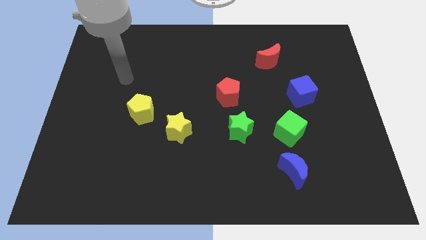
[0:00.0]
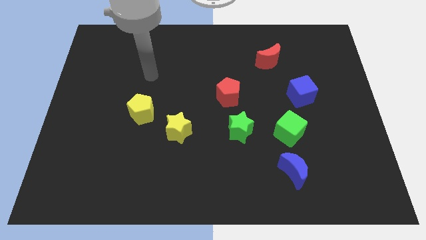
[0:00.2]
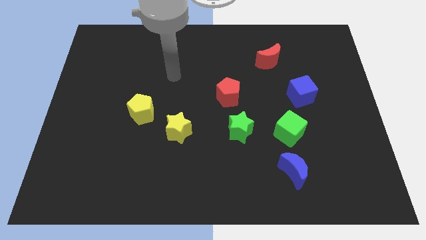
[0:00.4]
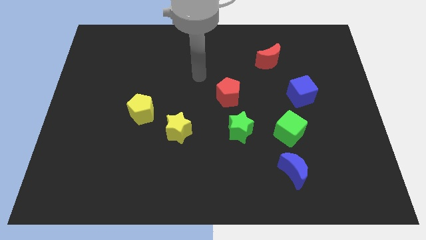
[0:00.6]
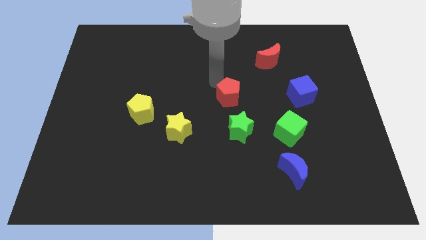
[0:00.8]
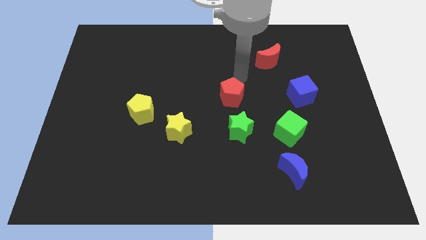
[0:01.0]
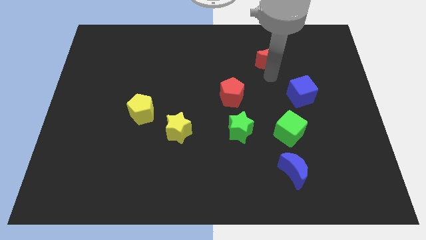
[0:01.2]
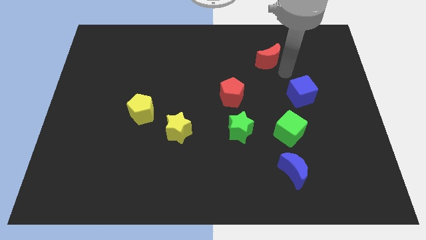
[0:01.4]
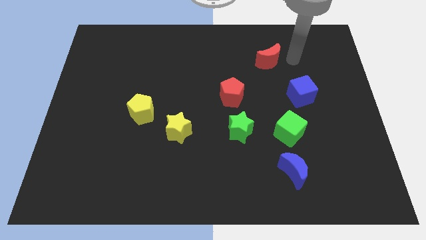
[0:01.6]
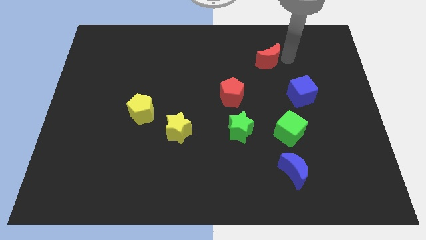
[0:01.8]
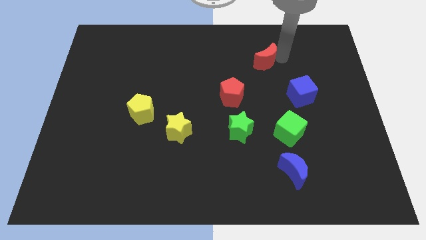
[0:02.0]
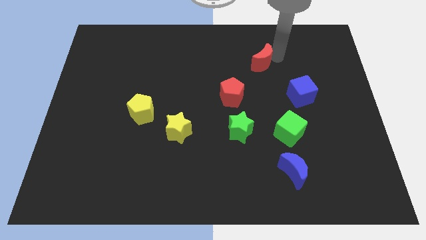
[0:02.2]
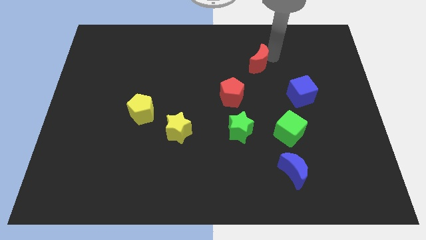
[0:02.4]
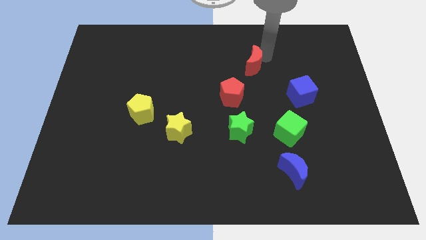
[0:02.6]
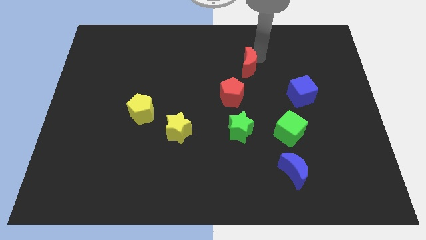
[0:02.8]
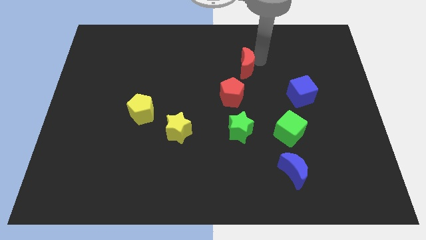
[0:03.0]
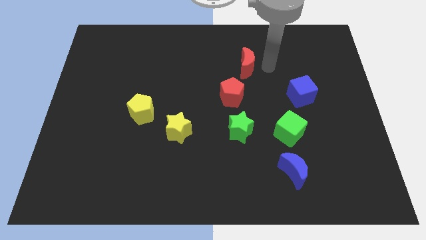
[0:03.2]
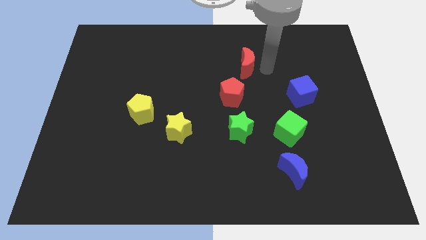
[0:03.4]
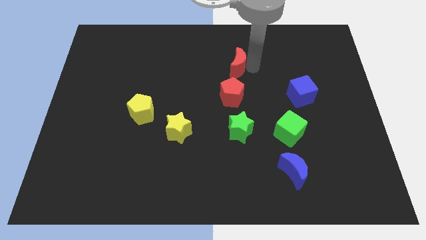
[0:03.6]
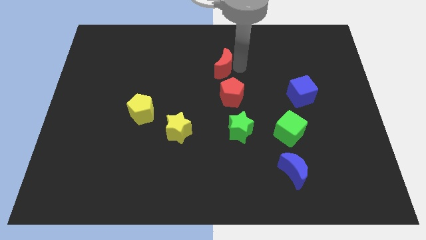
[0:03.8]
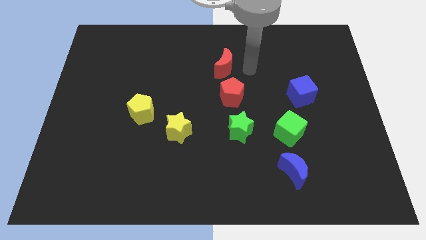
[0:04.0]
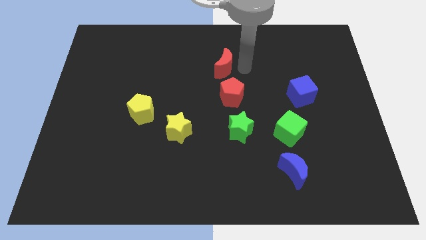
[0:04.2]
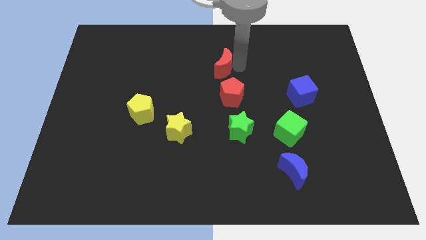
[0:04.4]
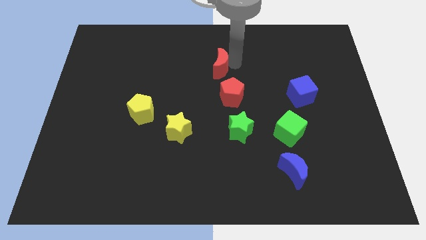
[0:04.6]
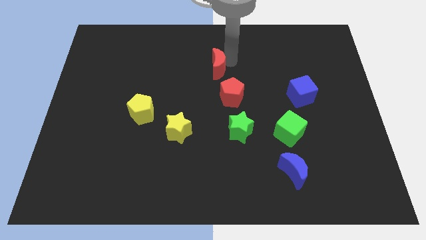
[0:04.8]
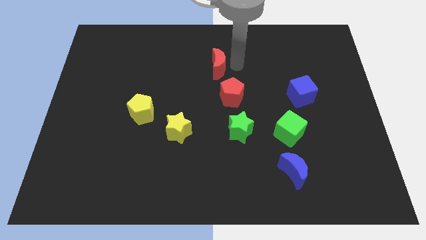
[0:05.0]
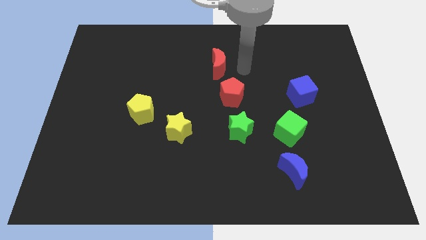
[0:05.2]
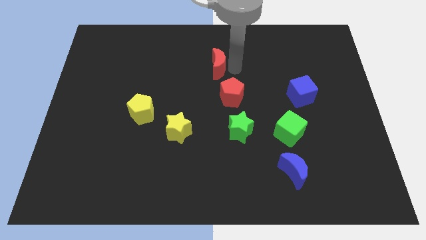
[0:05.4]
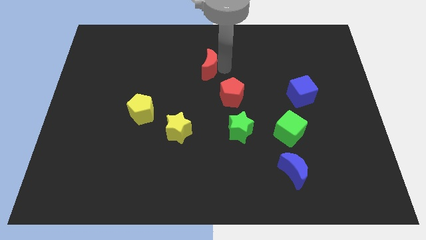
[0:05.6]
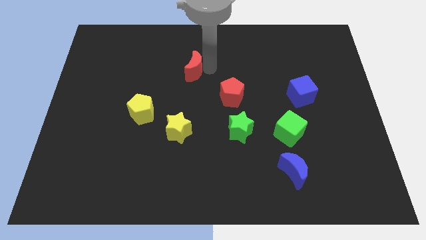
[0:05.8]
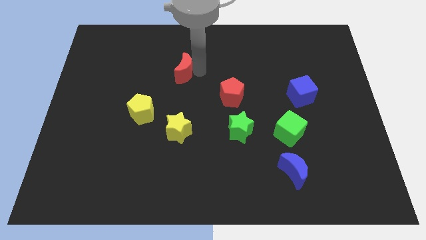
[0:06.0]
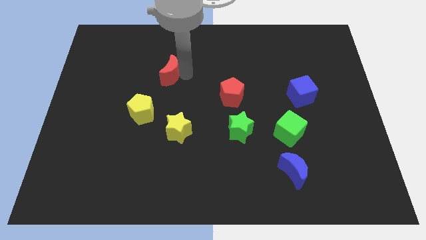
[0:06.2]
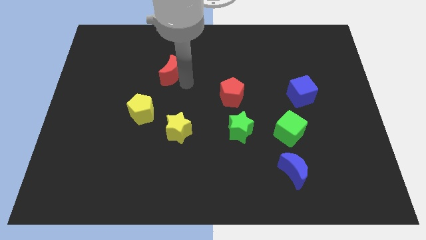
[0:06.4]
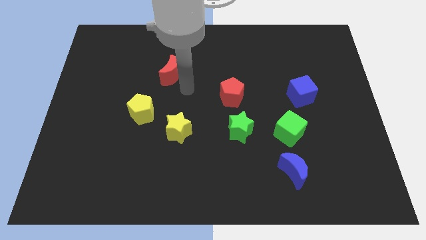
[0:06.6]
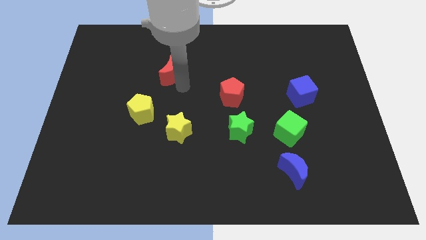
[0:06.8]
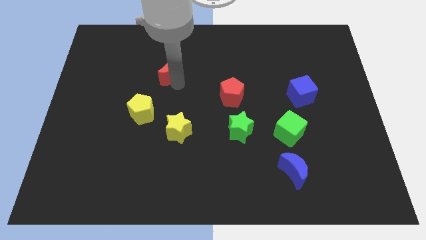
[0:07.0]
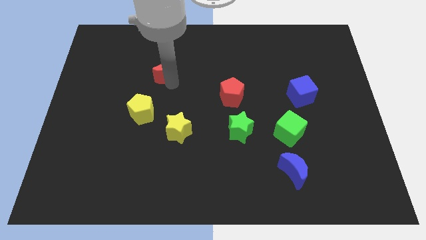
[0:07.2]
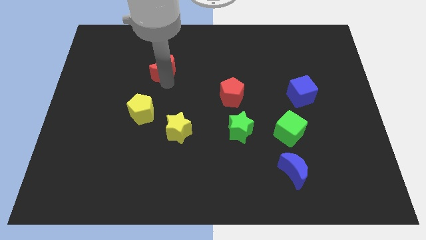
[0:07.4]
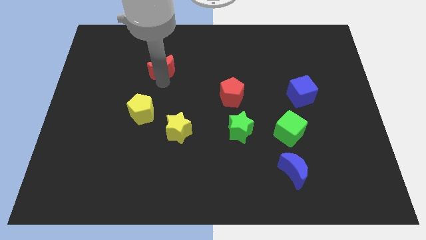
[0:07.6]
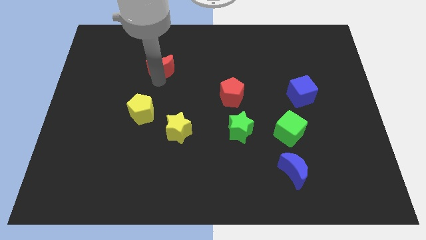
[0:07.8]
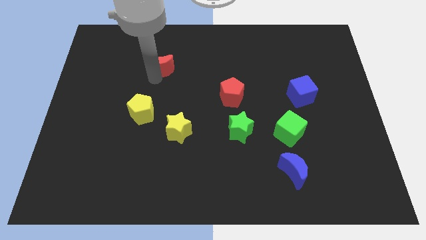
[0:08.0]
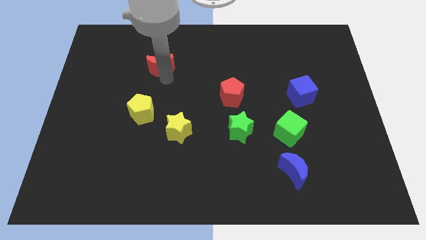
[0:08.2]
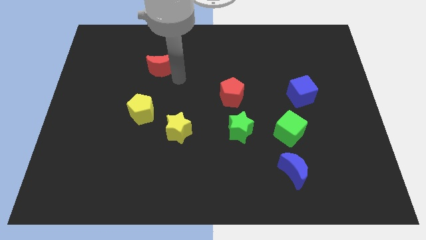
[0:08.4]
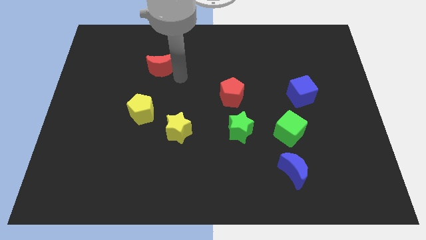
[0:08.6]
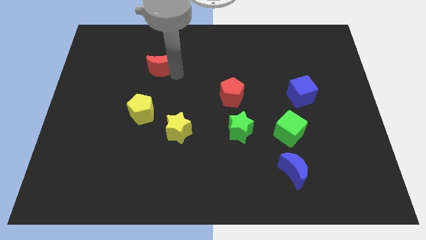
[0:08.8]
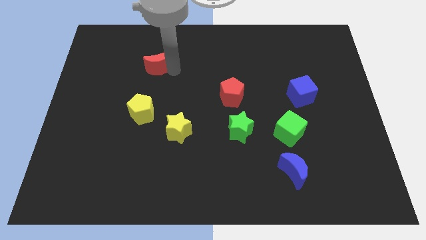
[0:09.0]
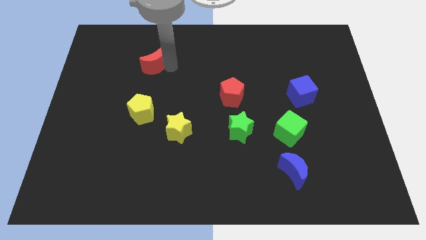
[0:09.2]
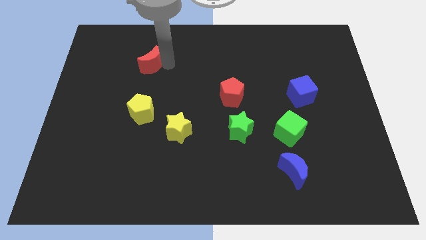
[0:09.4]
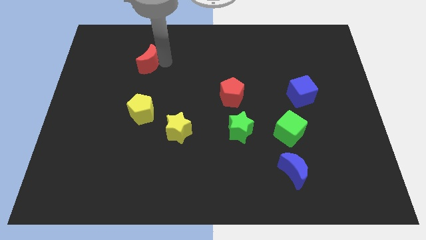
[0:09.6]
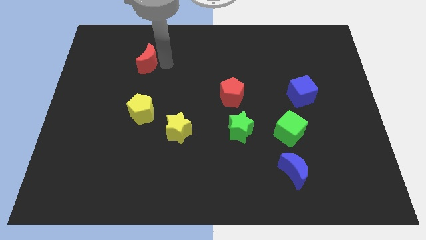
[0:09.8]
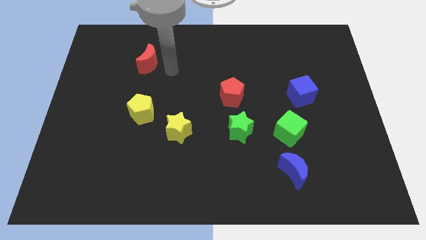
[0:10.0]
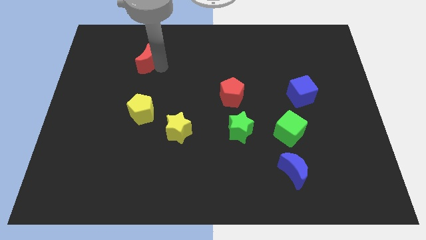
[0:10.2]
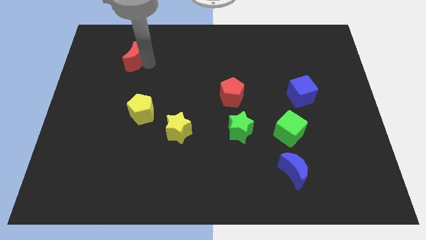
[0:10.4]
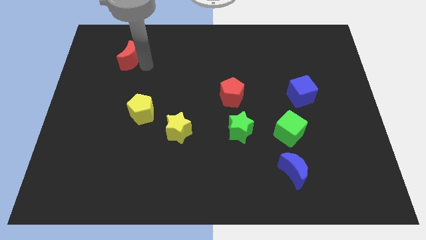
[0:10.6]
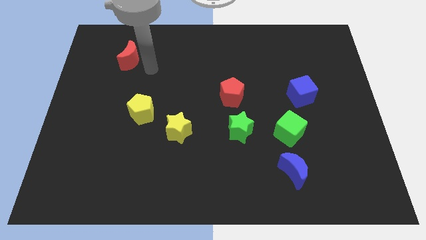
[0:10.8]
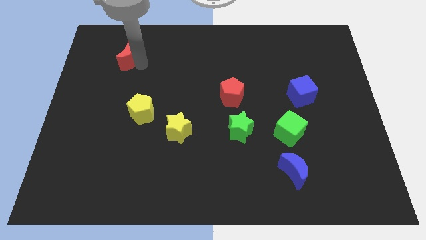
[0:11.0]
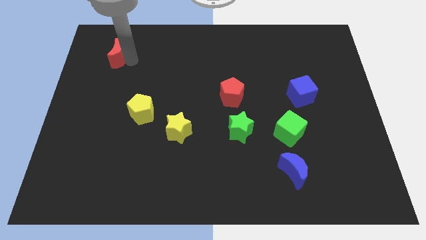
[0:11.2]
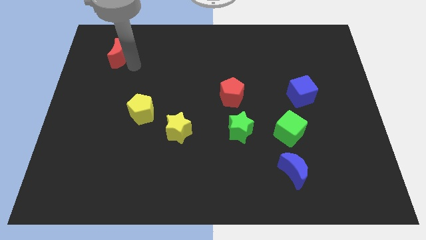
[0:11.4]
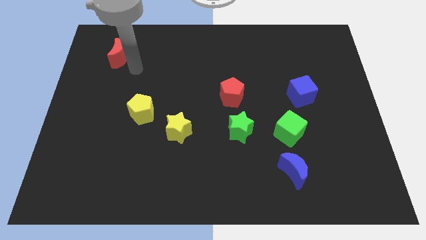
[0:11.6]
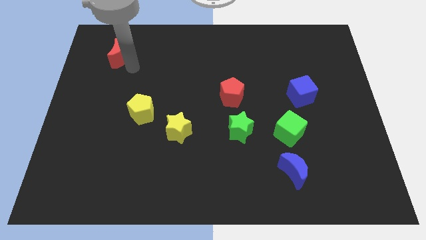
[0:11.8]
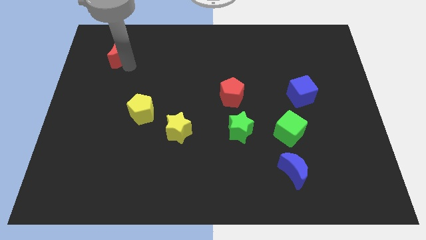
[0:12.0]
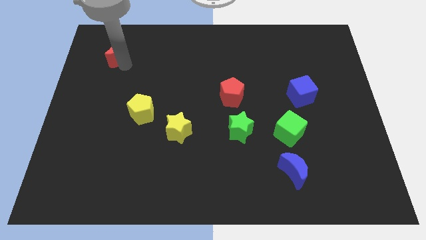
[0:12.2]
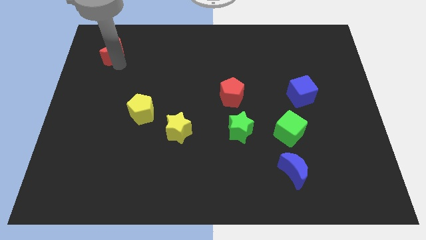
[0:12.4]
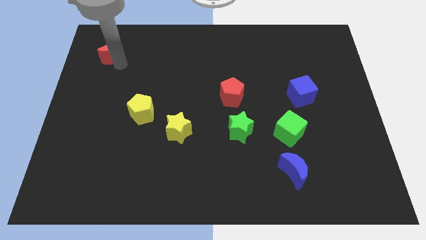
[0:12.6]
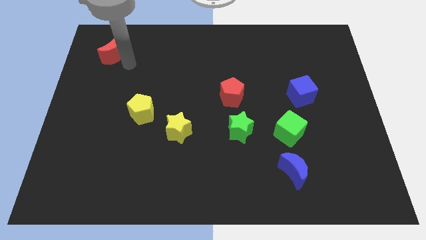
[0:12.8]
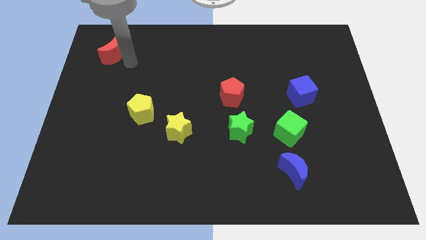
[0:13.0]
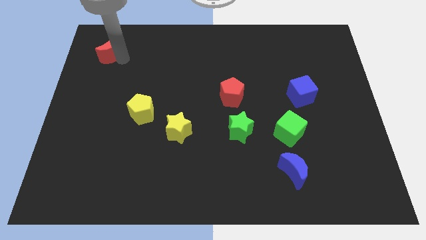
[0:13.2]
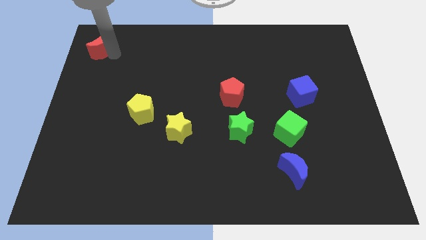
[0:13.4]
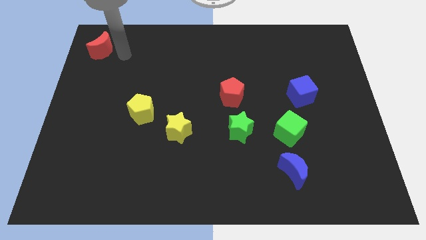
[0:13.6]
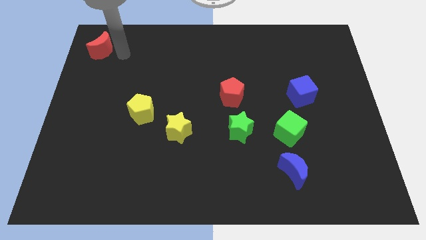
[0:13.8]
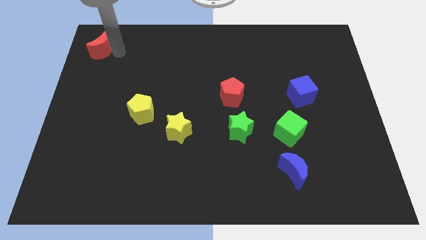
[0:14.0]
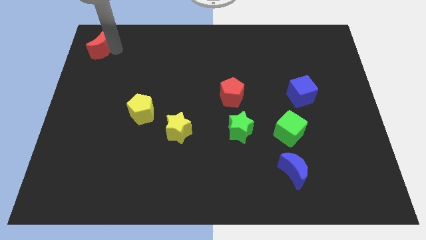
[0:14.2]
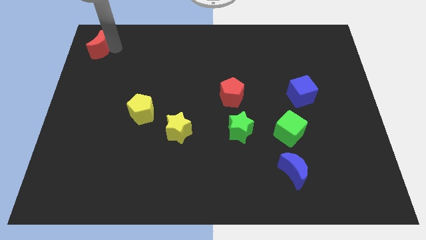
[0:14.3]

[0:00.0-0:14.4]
move the red moon to the top left of the board
